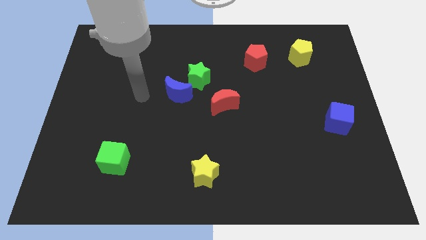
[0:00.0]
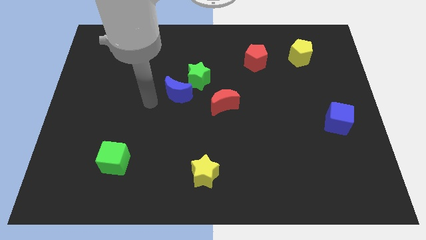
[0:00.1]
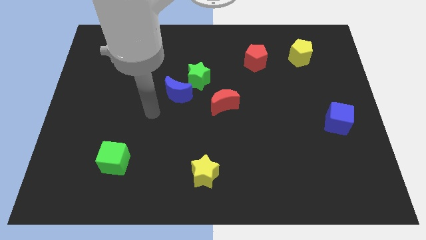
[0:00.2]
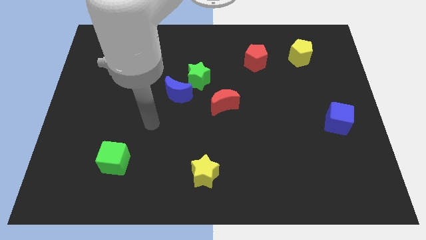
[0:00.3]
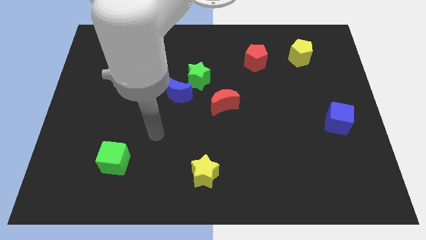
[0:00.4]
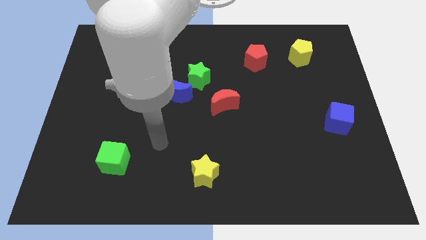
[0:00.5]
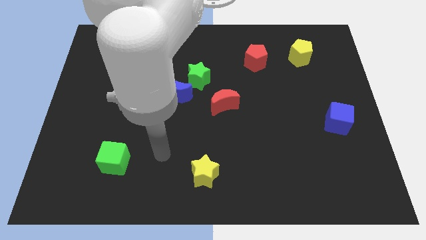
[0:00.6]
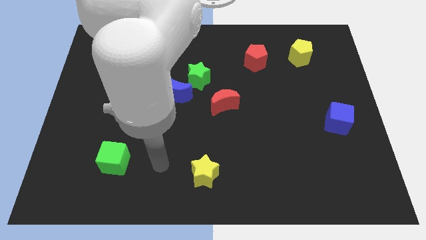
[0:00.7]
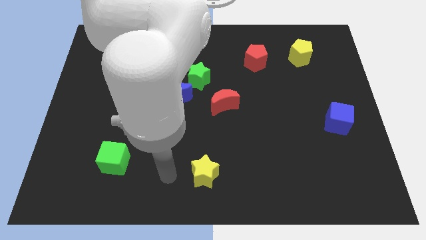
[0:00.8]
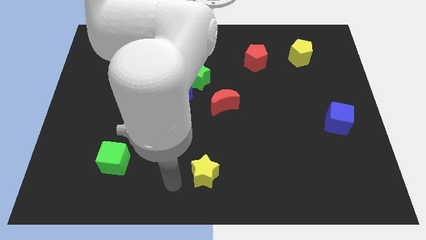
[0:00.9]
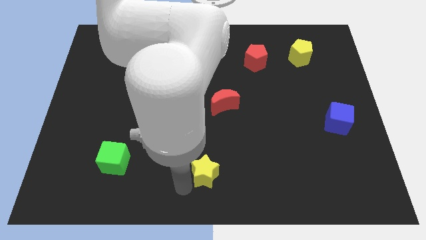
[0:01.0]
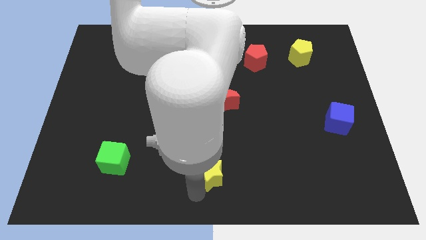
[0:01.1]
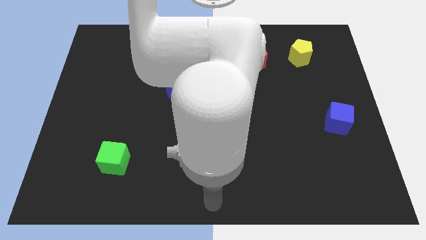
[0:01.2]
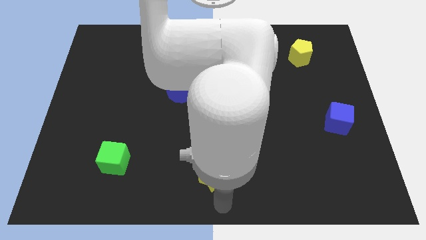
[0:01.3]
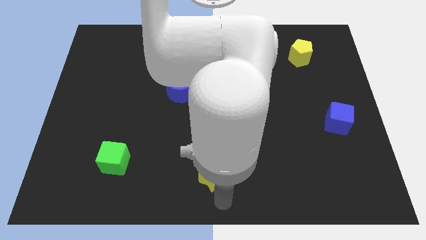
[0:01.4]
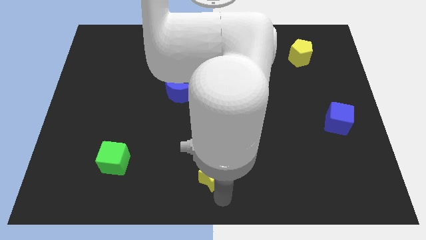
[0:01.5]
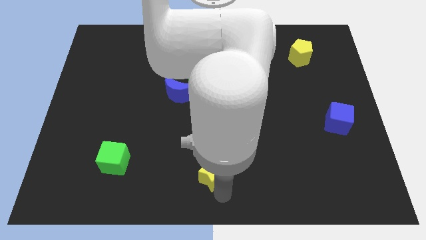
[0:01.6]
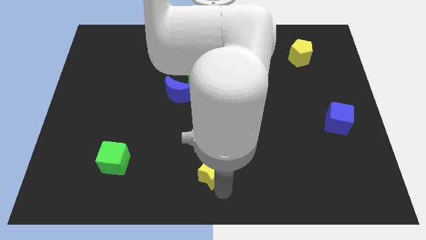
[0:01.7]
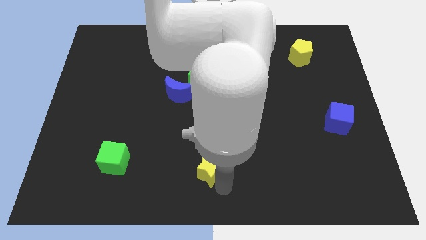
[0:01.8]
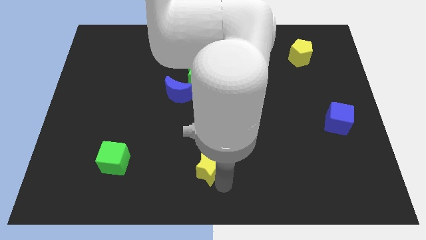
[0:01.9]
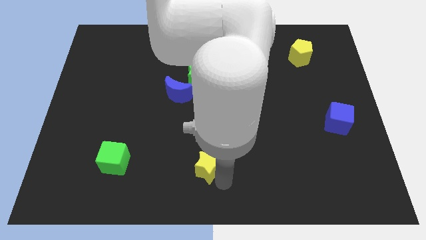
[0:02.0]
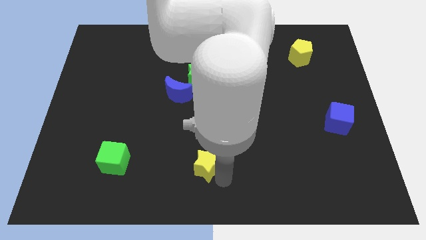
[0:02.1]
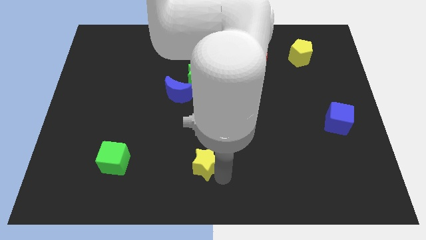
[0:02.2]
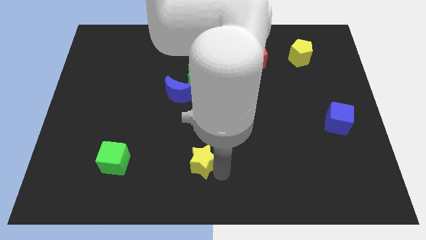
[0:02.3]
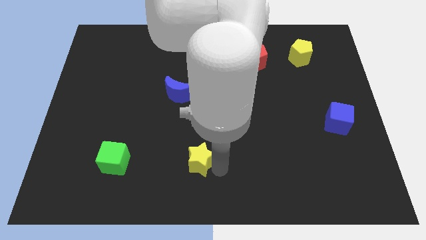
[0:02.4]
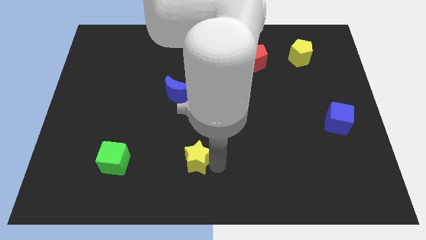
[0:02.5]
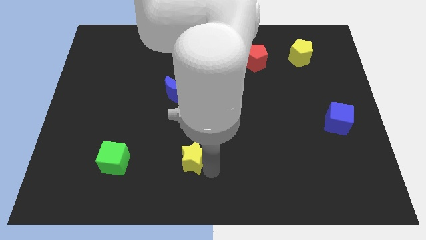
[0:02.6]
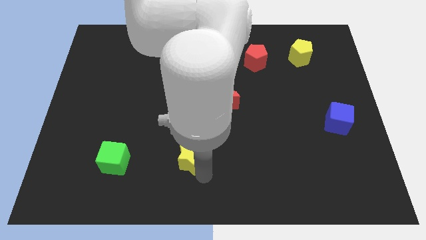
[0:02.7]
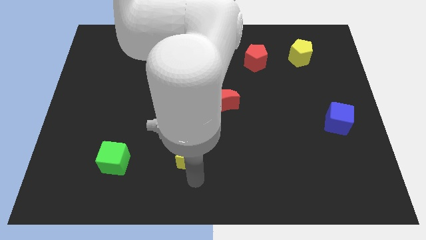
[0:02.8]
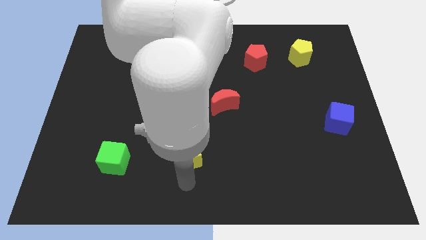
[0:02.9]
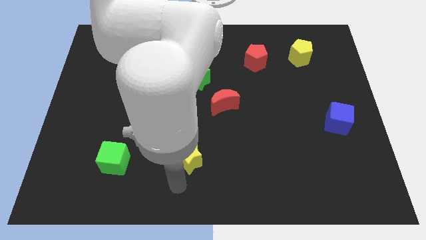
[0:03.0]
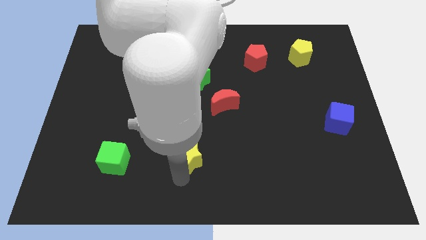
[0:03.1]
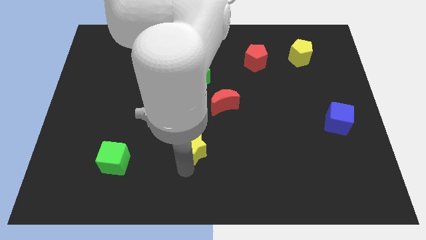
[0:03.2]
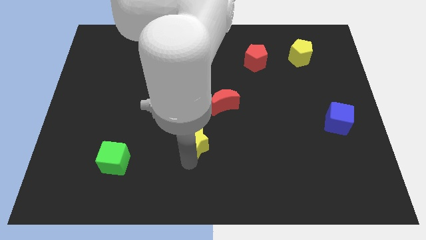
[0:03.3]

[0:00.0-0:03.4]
slide the yellow star a bit upwards

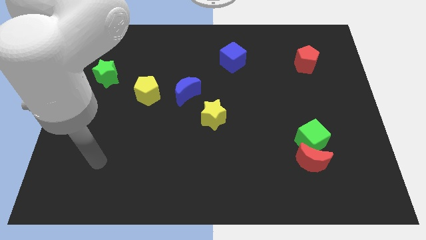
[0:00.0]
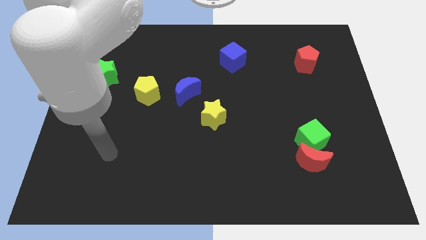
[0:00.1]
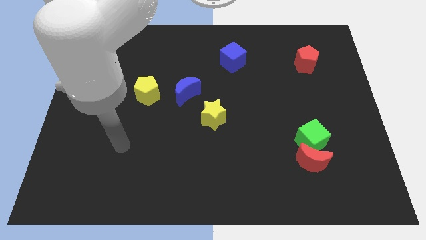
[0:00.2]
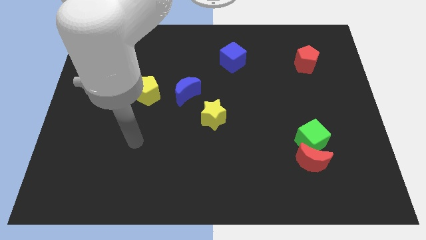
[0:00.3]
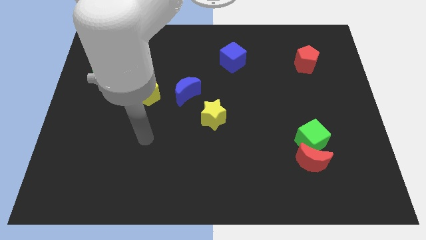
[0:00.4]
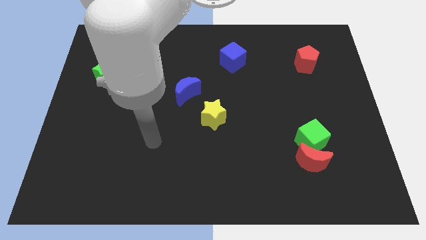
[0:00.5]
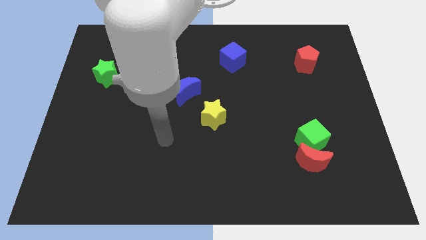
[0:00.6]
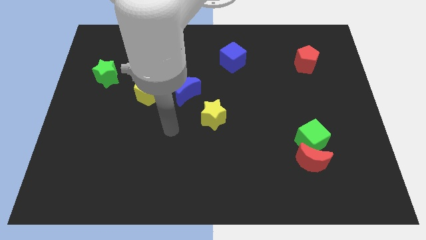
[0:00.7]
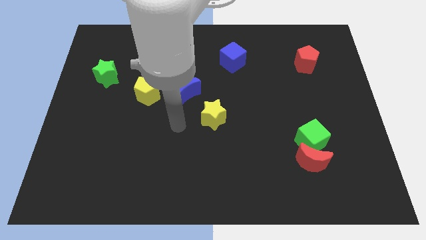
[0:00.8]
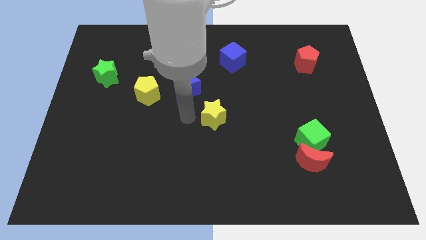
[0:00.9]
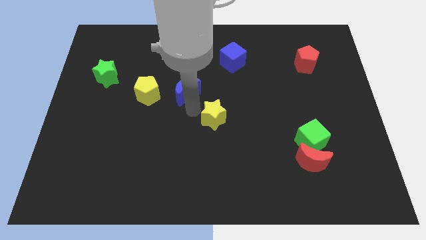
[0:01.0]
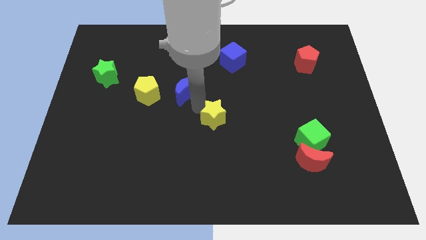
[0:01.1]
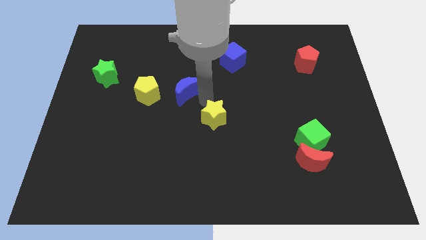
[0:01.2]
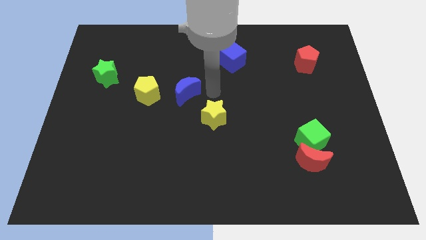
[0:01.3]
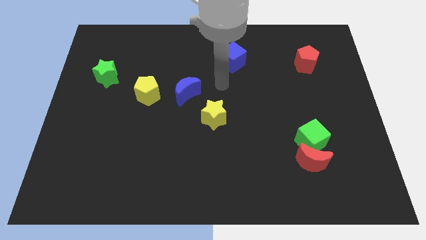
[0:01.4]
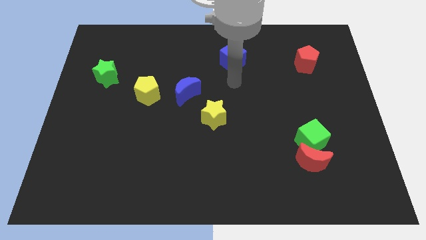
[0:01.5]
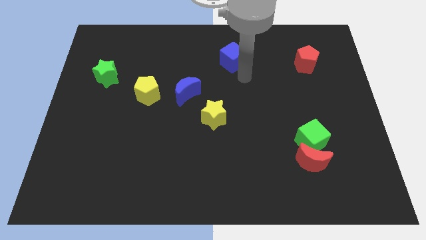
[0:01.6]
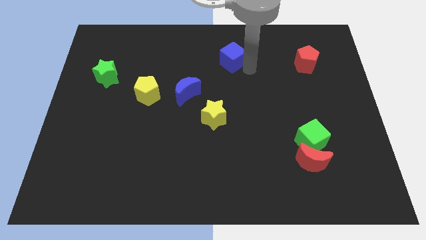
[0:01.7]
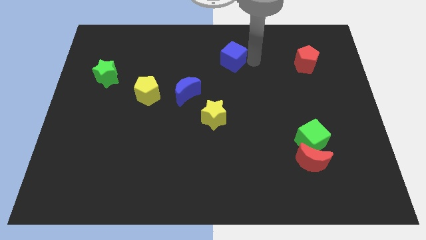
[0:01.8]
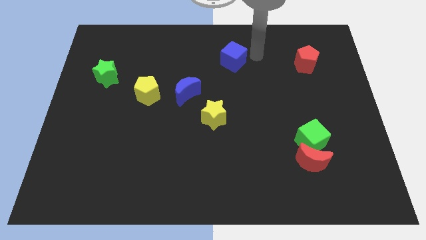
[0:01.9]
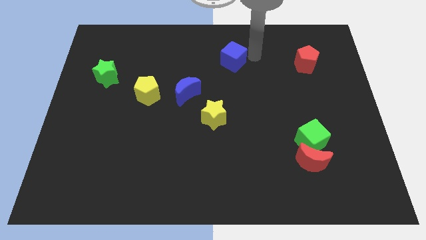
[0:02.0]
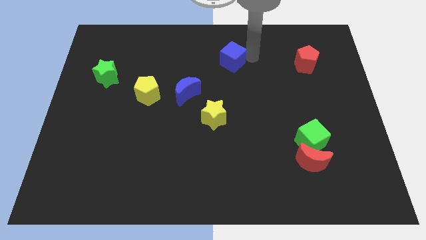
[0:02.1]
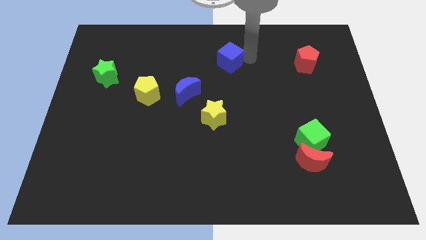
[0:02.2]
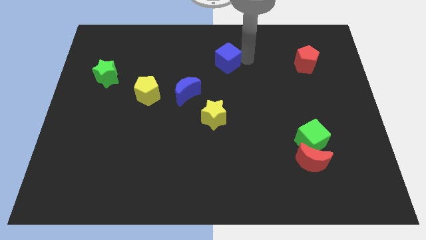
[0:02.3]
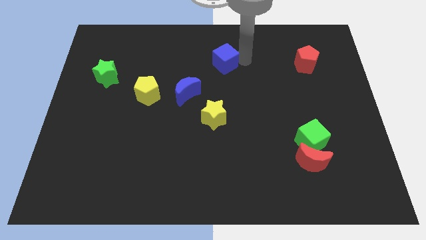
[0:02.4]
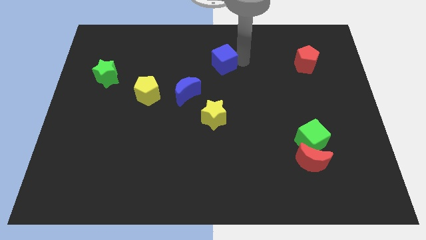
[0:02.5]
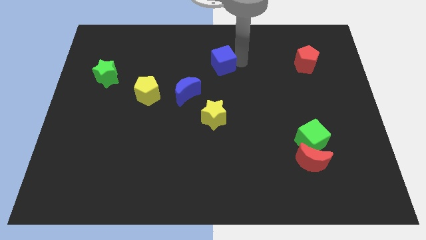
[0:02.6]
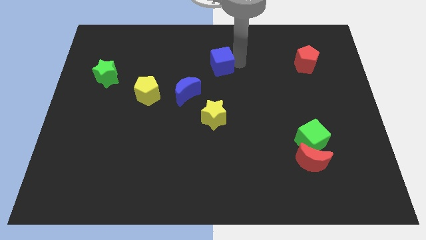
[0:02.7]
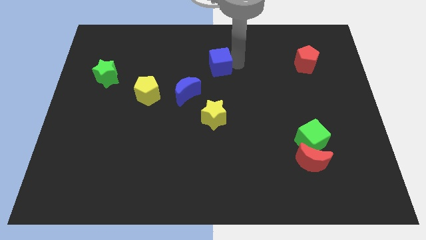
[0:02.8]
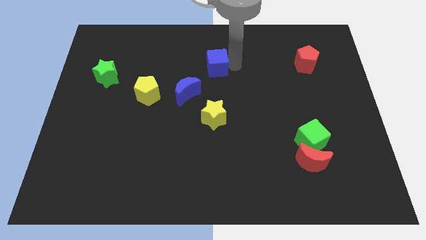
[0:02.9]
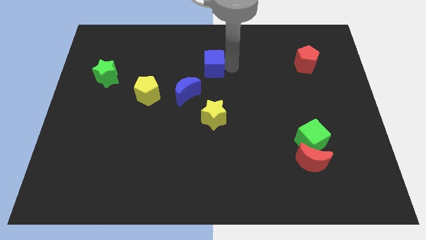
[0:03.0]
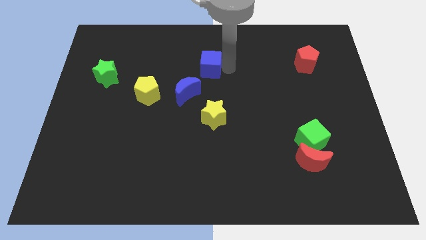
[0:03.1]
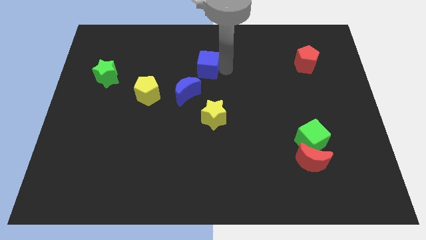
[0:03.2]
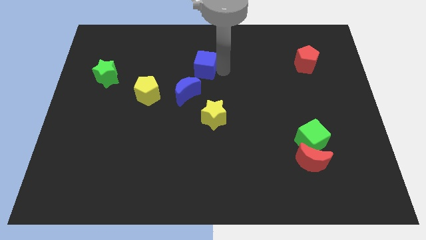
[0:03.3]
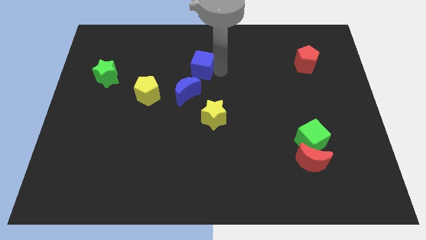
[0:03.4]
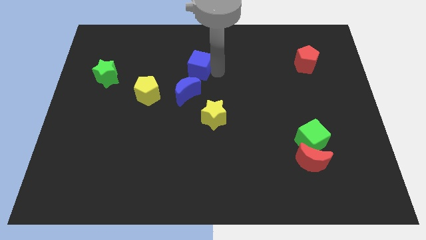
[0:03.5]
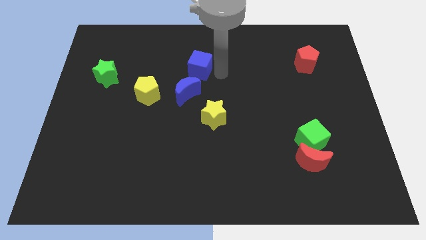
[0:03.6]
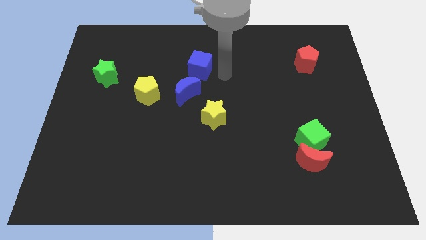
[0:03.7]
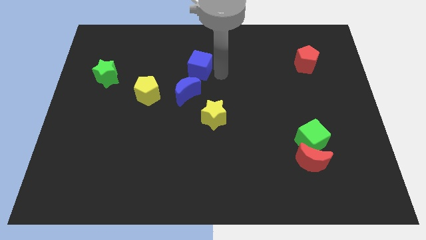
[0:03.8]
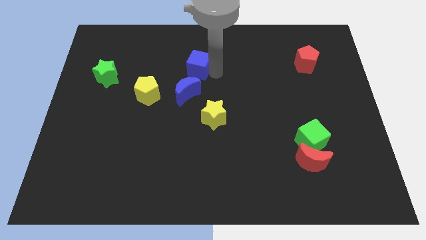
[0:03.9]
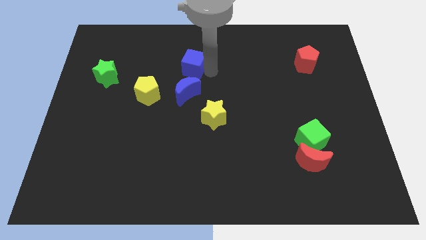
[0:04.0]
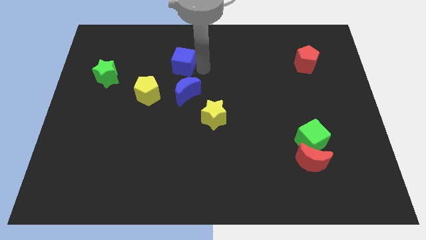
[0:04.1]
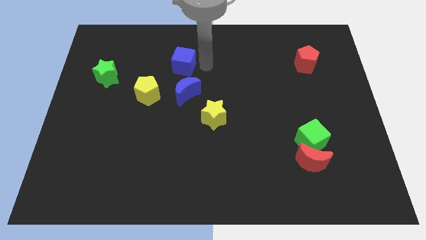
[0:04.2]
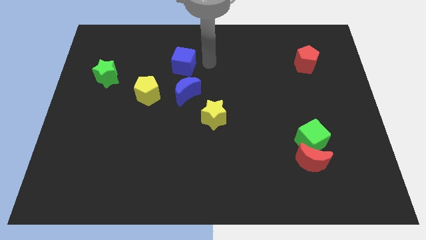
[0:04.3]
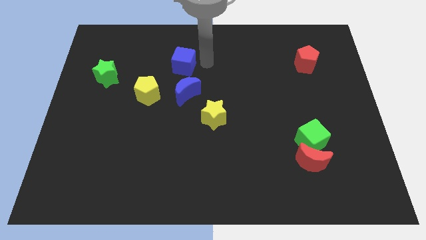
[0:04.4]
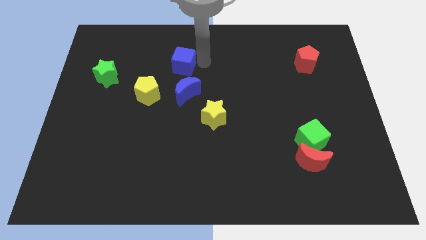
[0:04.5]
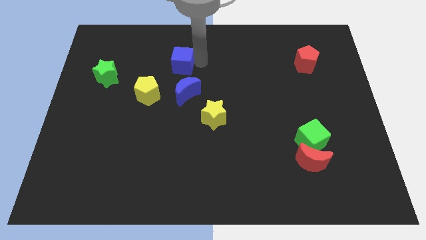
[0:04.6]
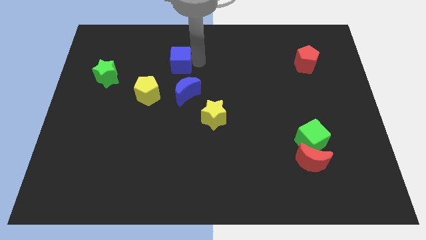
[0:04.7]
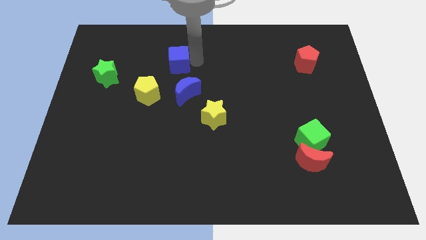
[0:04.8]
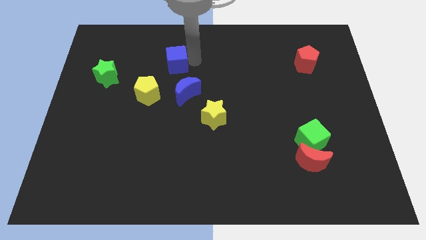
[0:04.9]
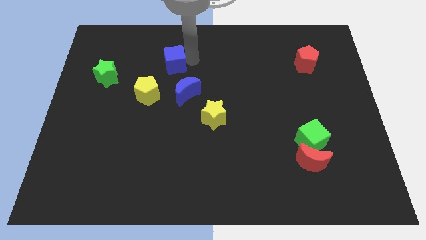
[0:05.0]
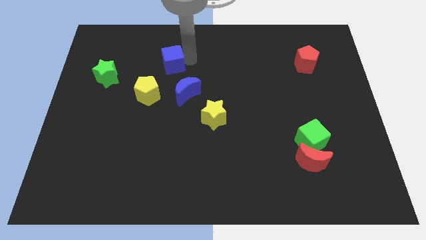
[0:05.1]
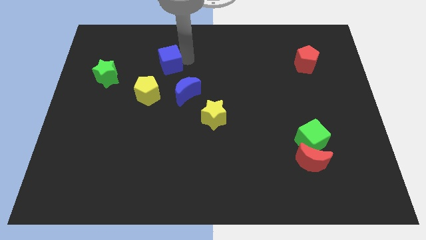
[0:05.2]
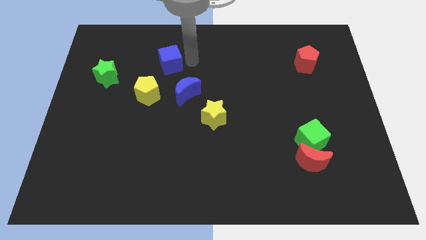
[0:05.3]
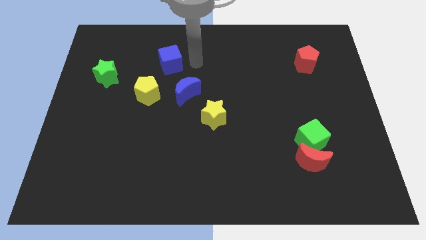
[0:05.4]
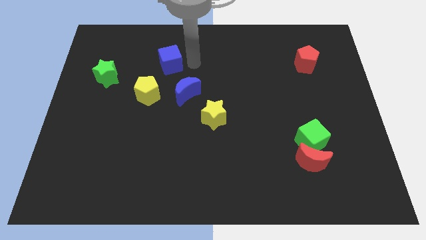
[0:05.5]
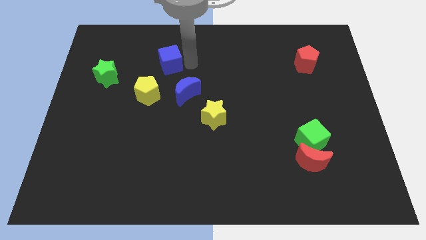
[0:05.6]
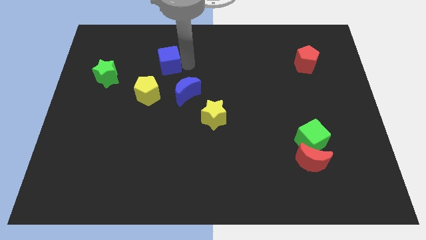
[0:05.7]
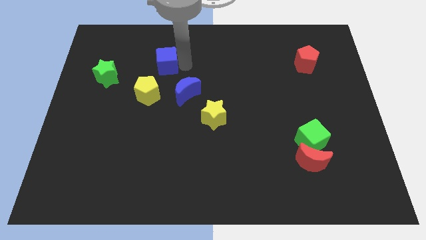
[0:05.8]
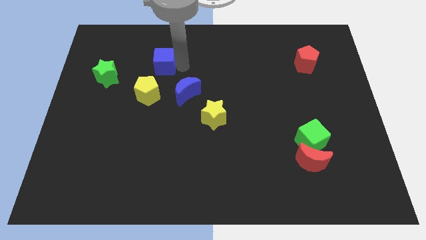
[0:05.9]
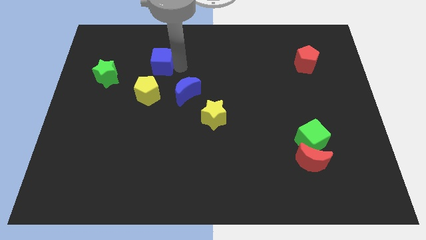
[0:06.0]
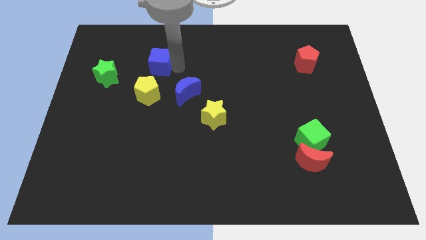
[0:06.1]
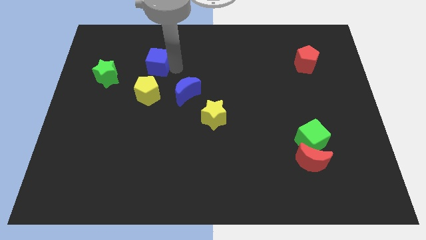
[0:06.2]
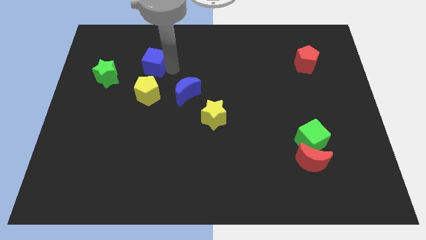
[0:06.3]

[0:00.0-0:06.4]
push the blue cube to the left
